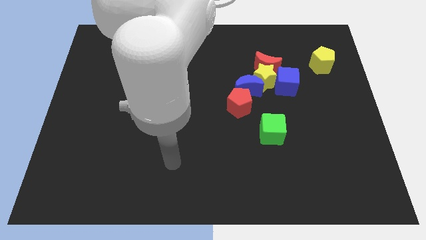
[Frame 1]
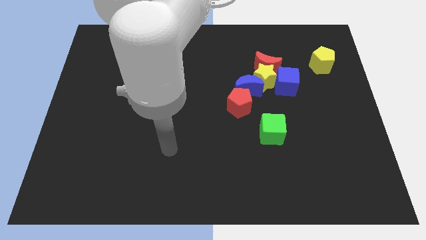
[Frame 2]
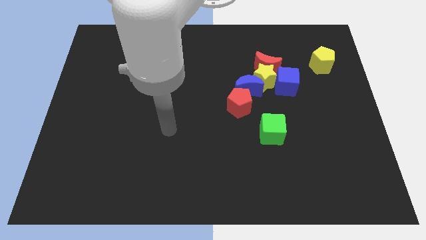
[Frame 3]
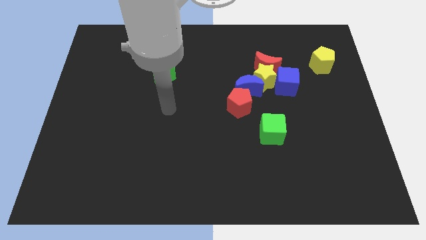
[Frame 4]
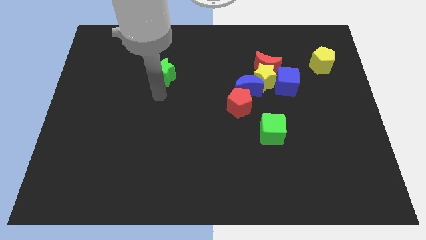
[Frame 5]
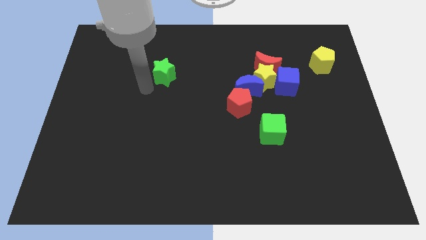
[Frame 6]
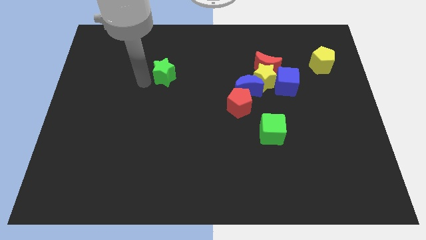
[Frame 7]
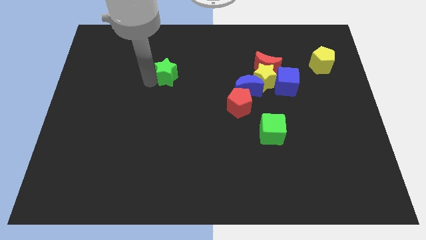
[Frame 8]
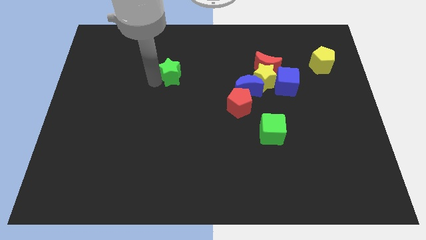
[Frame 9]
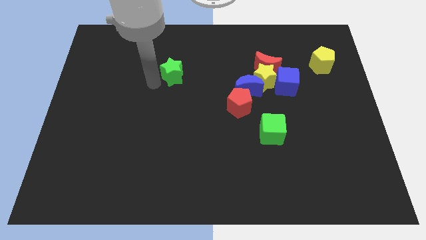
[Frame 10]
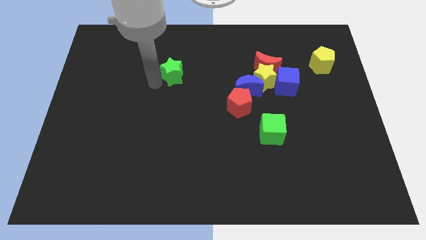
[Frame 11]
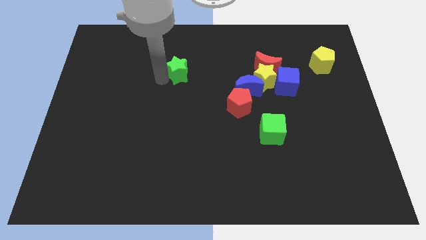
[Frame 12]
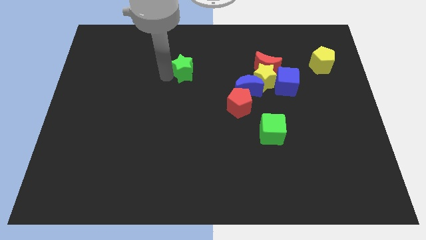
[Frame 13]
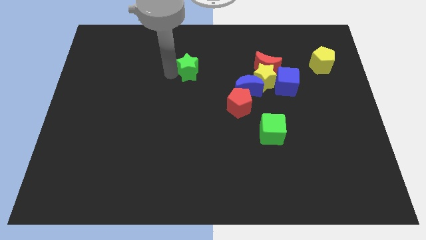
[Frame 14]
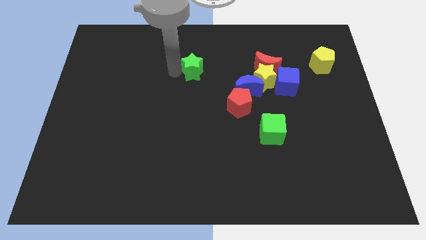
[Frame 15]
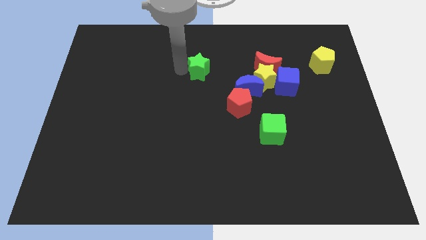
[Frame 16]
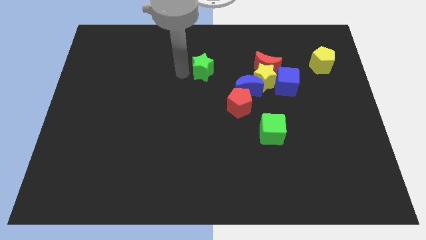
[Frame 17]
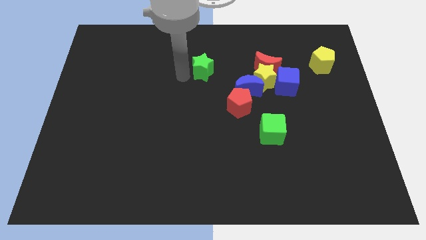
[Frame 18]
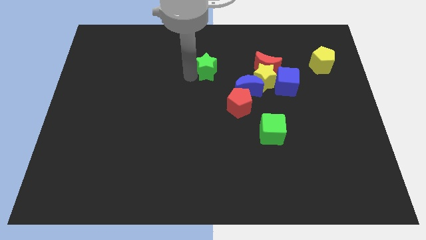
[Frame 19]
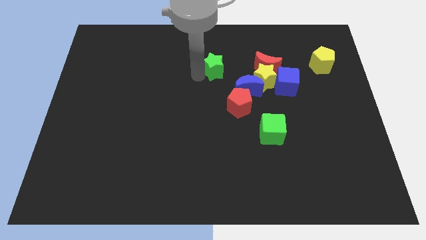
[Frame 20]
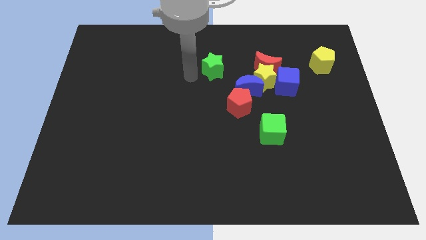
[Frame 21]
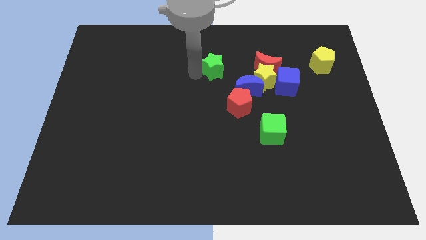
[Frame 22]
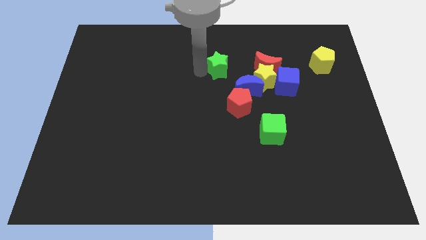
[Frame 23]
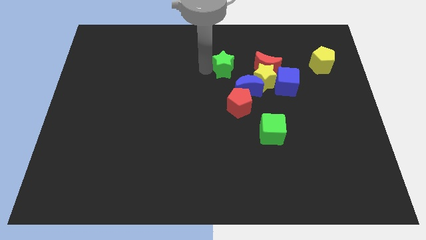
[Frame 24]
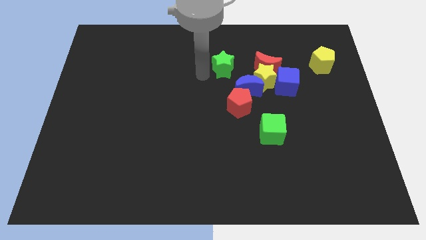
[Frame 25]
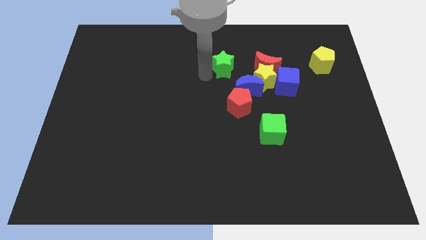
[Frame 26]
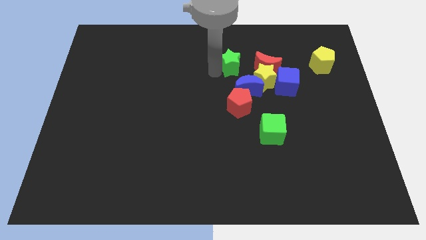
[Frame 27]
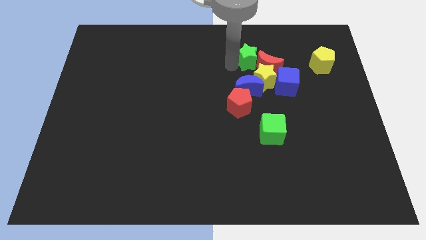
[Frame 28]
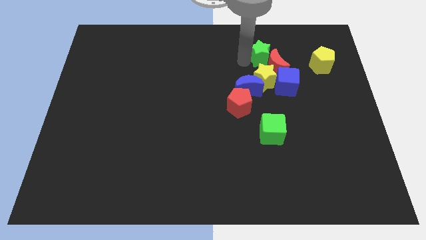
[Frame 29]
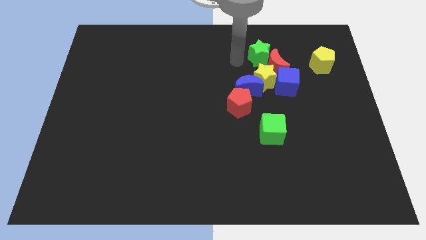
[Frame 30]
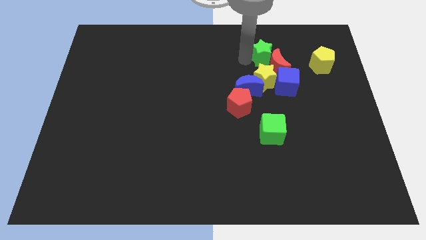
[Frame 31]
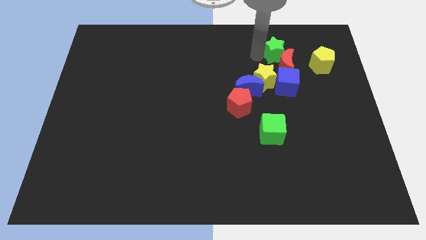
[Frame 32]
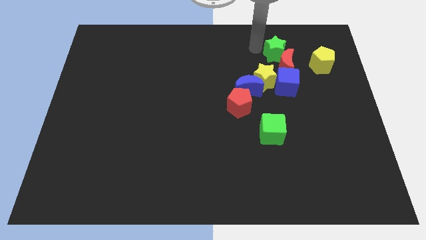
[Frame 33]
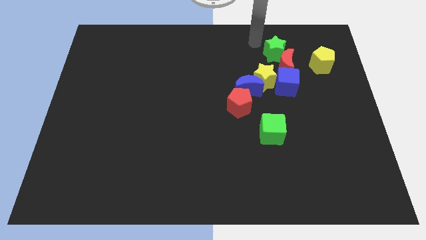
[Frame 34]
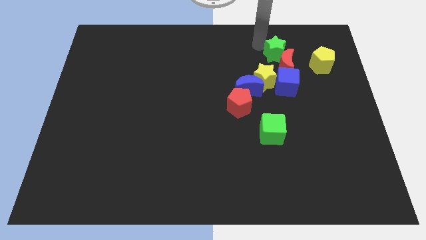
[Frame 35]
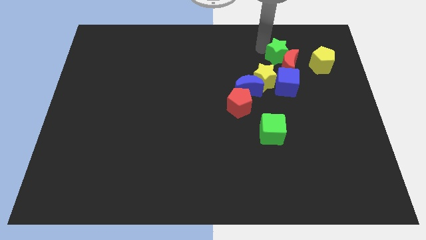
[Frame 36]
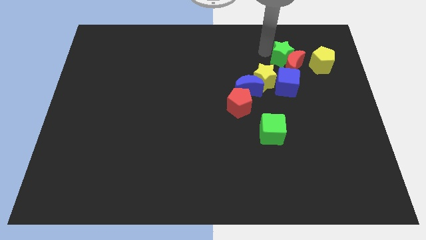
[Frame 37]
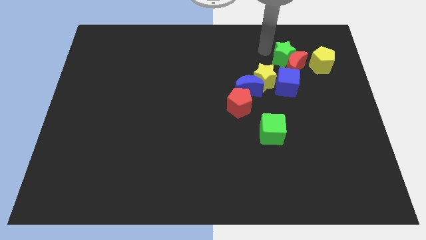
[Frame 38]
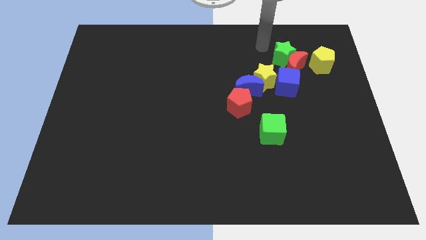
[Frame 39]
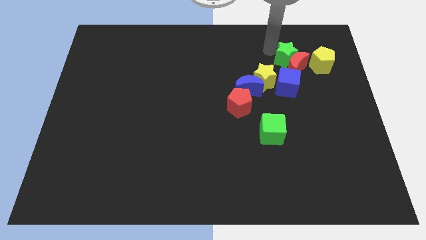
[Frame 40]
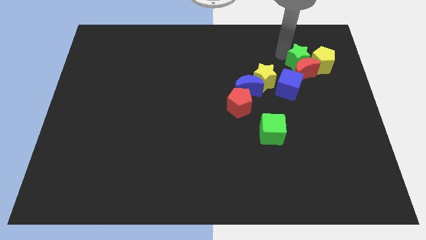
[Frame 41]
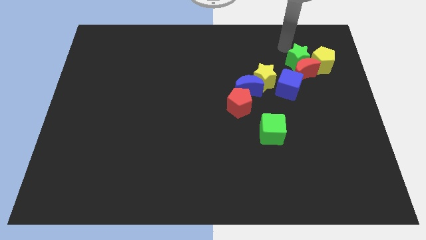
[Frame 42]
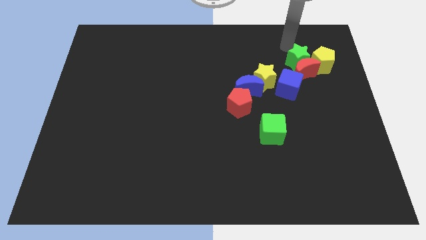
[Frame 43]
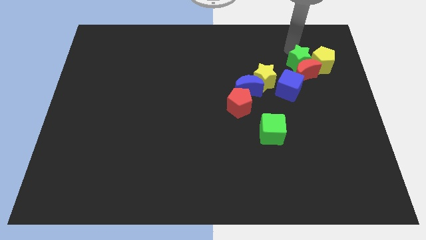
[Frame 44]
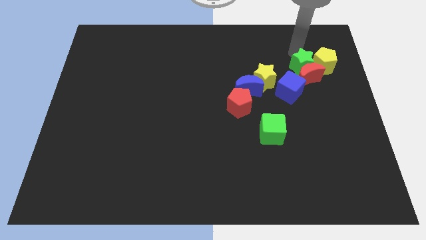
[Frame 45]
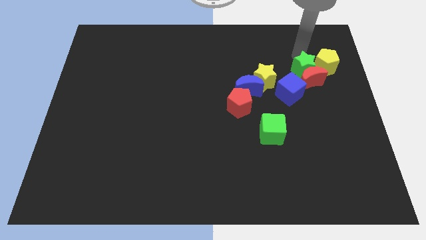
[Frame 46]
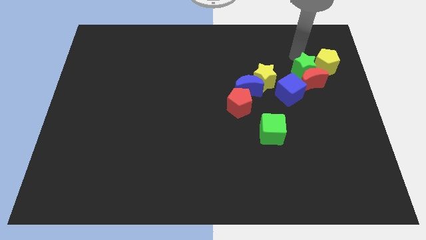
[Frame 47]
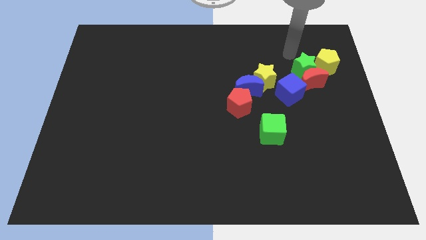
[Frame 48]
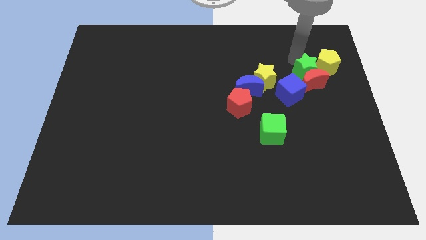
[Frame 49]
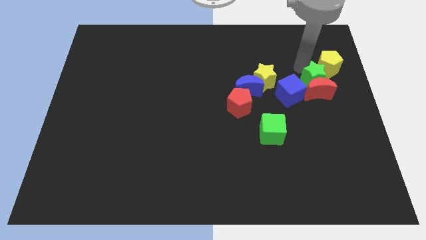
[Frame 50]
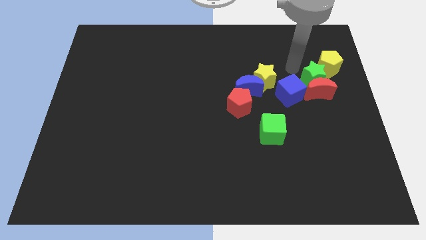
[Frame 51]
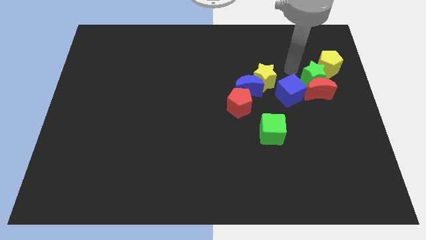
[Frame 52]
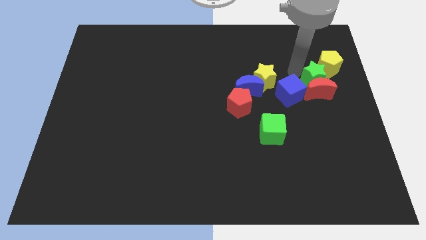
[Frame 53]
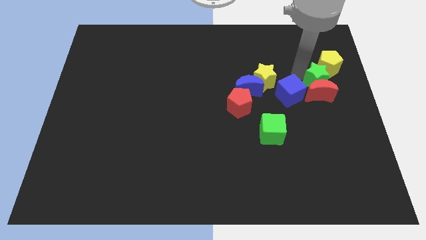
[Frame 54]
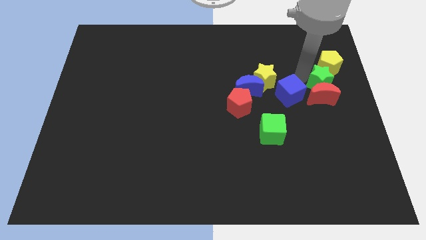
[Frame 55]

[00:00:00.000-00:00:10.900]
put the green star to the right side

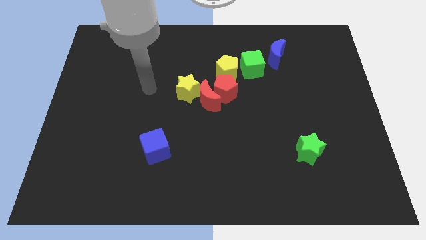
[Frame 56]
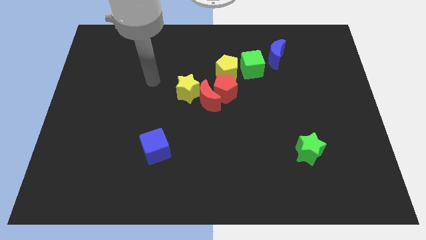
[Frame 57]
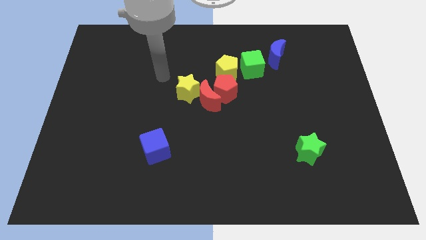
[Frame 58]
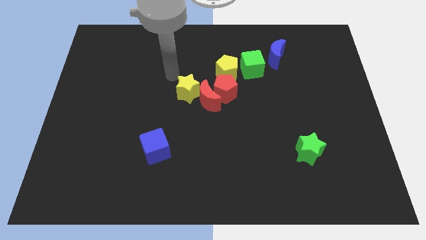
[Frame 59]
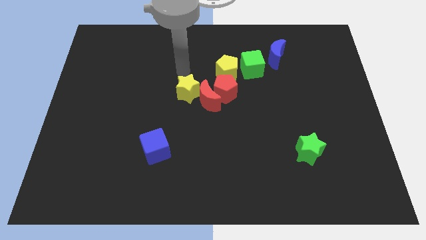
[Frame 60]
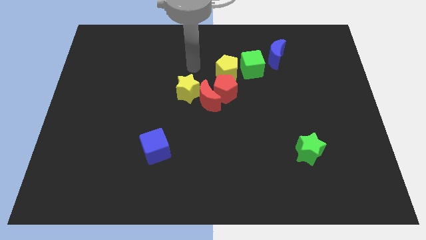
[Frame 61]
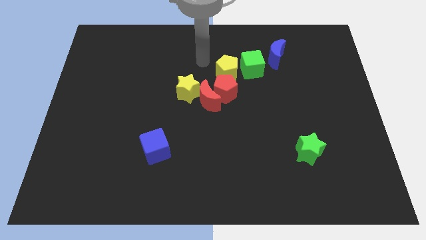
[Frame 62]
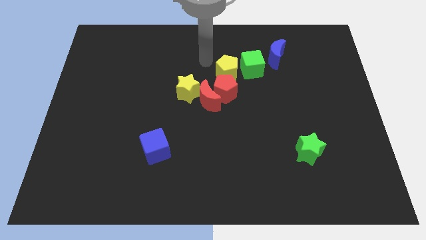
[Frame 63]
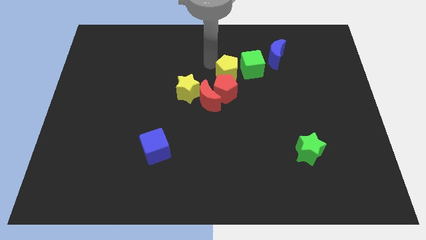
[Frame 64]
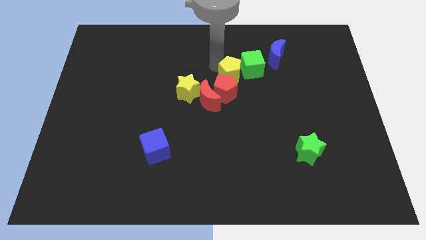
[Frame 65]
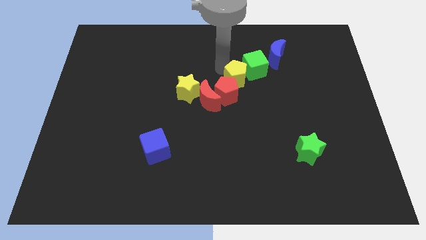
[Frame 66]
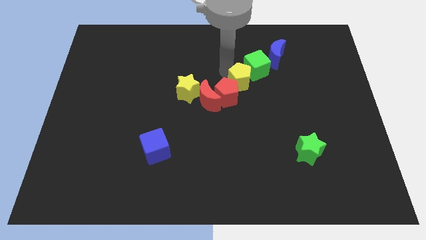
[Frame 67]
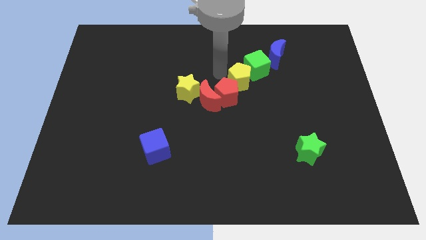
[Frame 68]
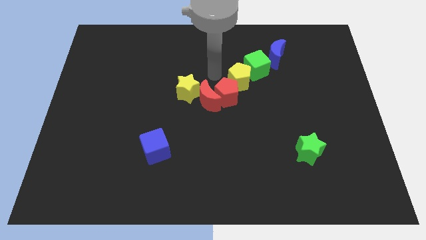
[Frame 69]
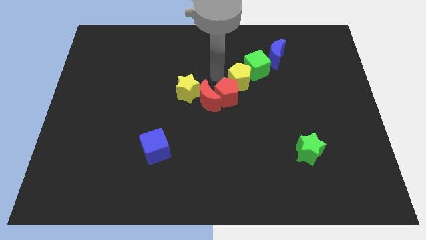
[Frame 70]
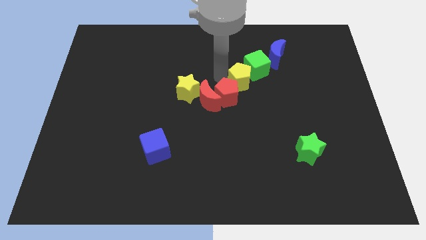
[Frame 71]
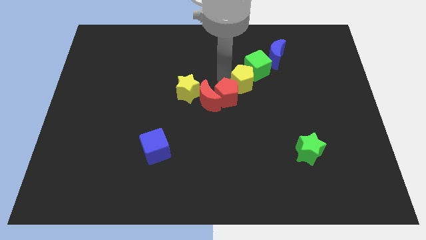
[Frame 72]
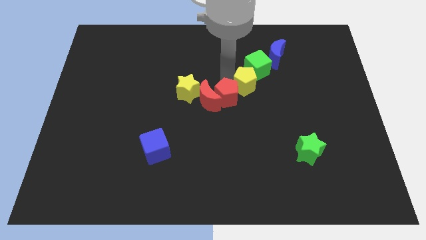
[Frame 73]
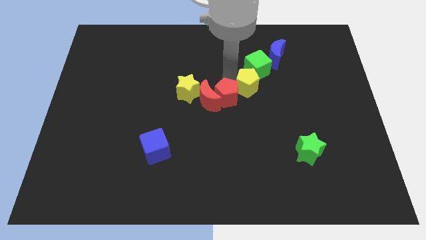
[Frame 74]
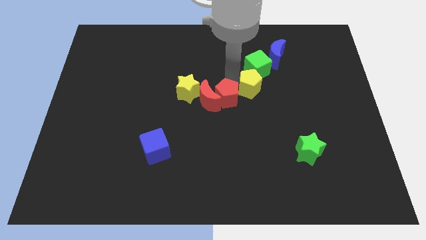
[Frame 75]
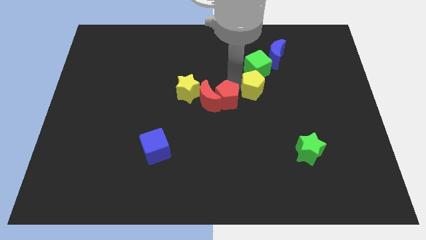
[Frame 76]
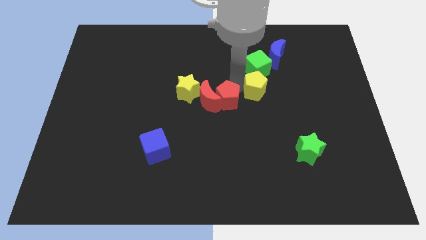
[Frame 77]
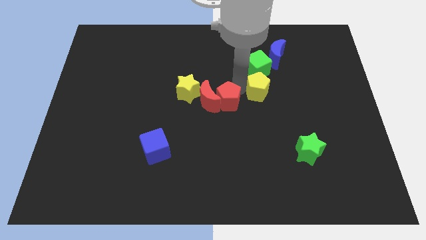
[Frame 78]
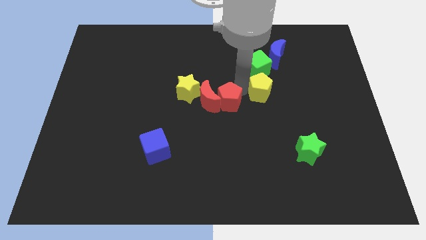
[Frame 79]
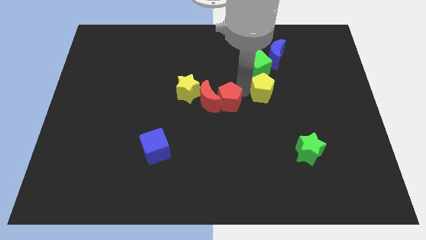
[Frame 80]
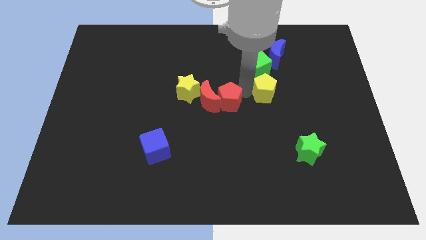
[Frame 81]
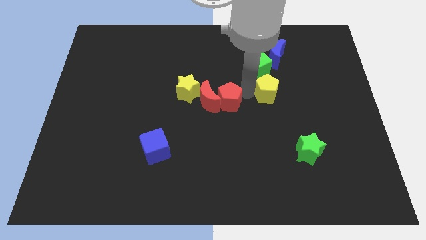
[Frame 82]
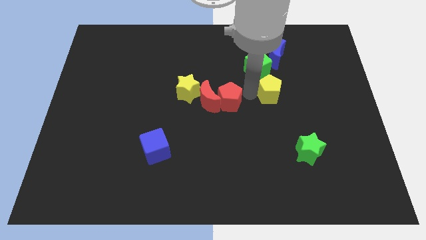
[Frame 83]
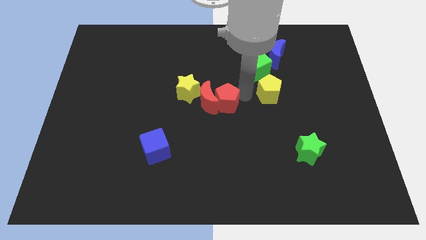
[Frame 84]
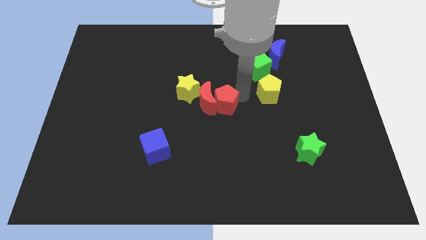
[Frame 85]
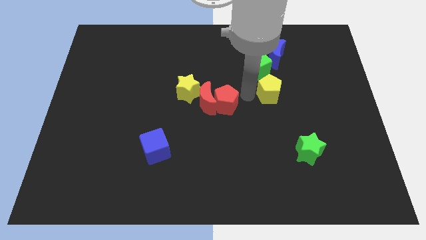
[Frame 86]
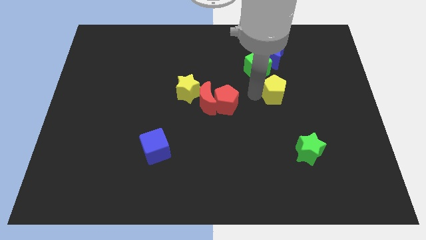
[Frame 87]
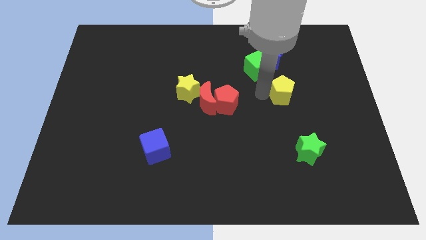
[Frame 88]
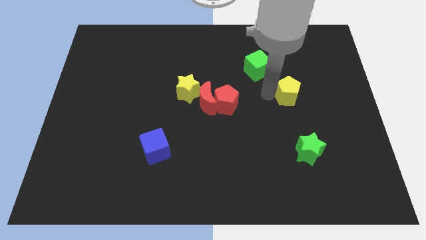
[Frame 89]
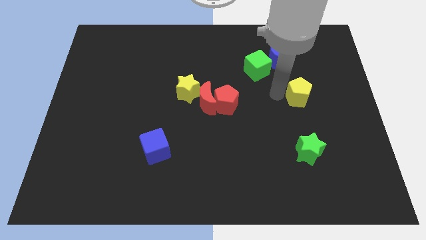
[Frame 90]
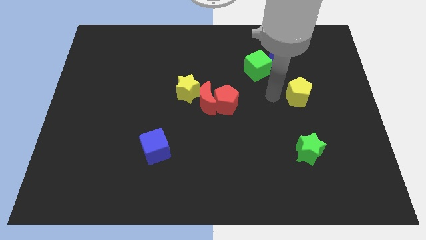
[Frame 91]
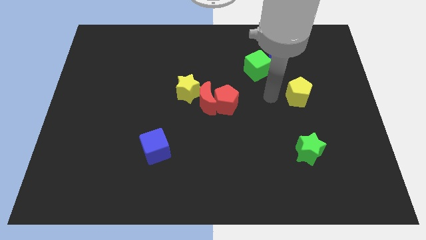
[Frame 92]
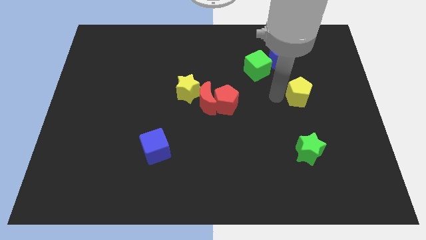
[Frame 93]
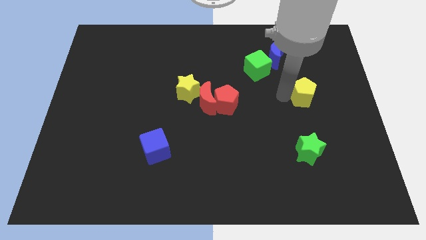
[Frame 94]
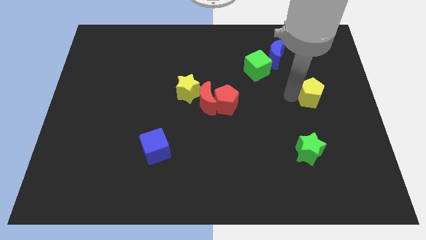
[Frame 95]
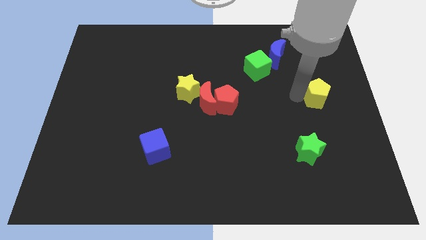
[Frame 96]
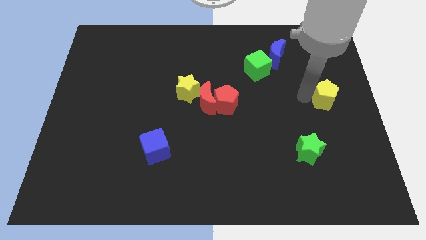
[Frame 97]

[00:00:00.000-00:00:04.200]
move the yellow pentagon to the right side
